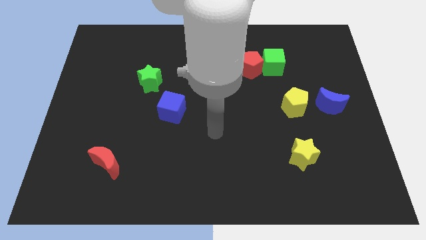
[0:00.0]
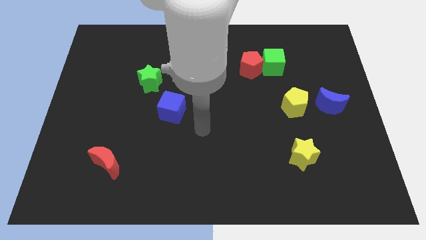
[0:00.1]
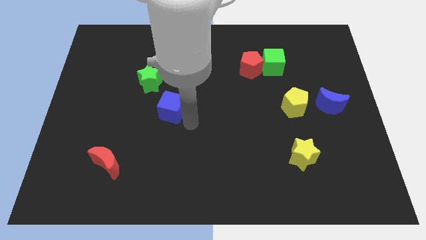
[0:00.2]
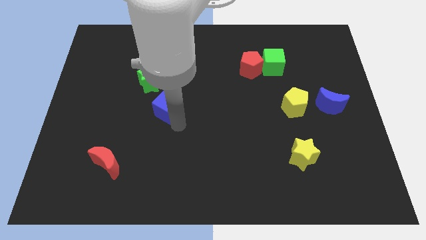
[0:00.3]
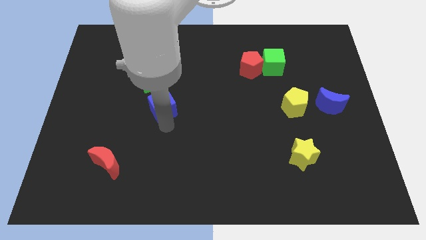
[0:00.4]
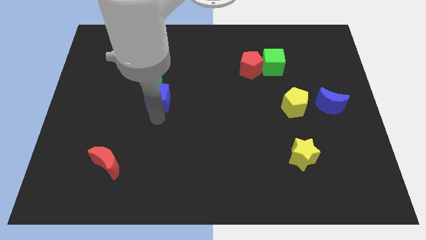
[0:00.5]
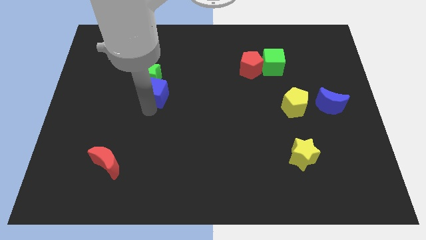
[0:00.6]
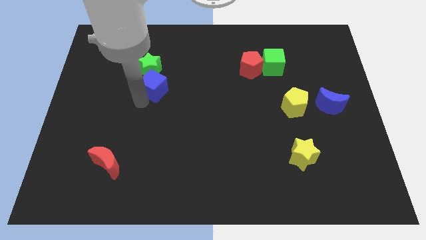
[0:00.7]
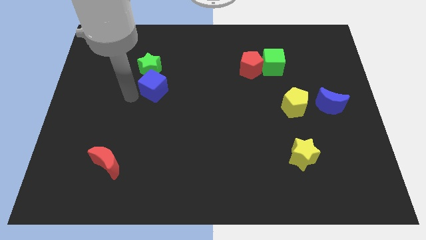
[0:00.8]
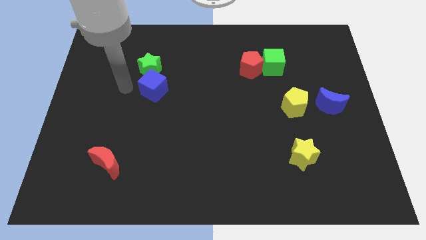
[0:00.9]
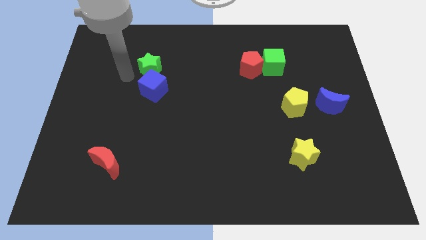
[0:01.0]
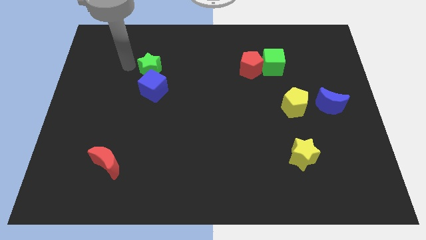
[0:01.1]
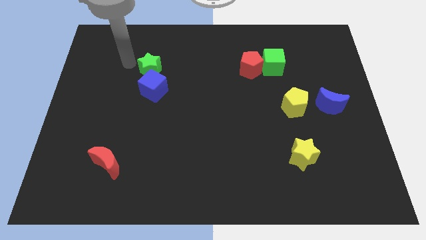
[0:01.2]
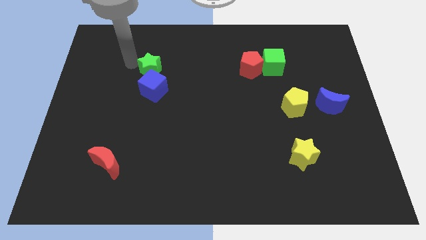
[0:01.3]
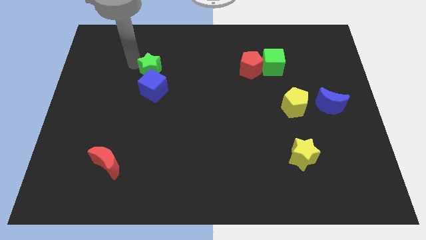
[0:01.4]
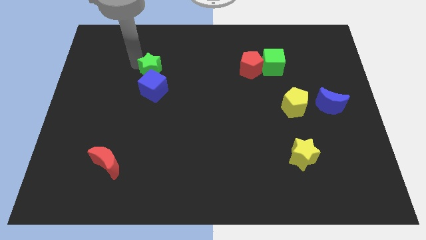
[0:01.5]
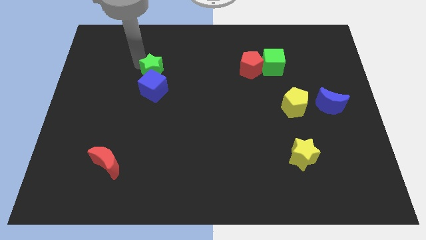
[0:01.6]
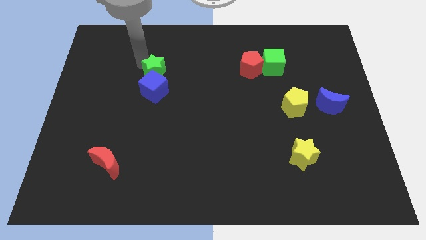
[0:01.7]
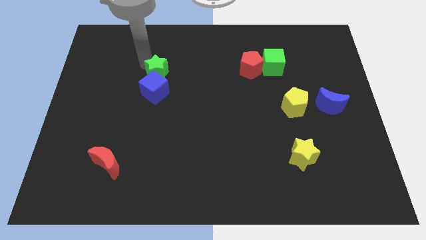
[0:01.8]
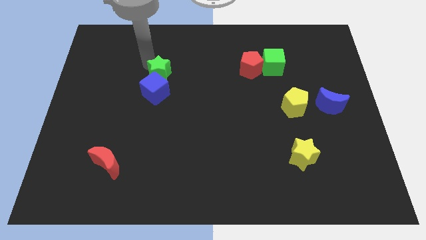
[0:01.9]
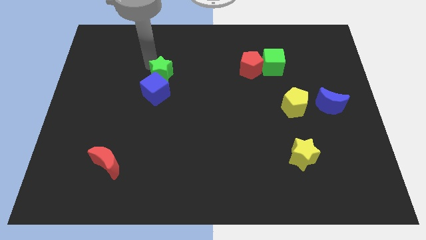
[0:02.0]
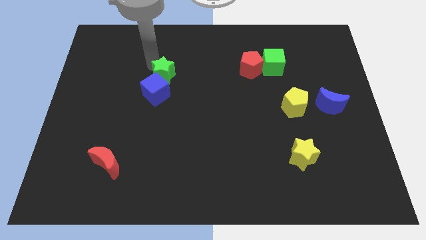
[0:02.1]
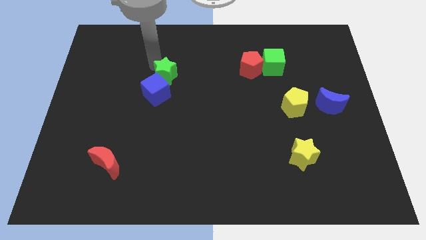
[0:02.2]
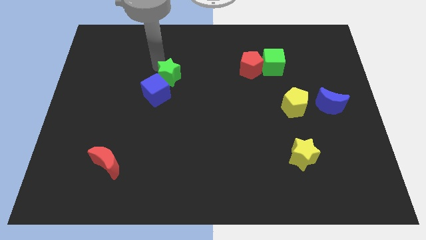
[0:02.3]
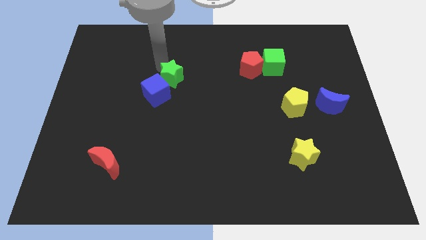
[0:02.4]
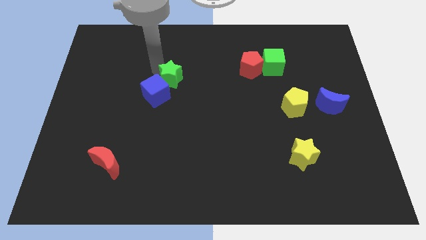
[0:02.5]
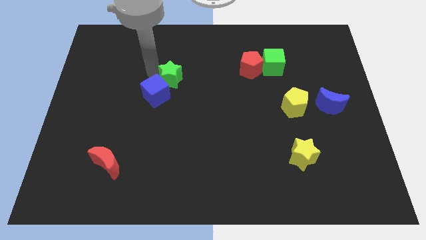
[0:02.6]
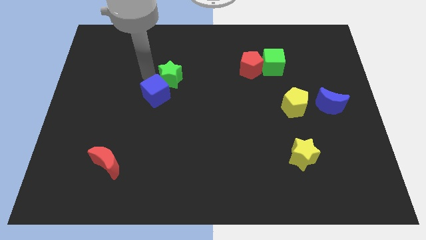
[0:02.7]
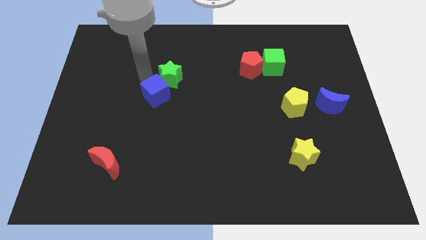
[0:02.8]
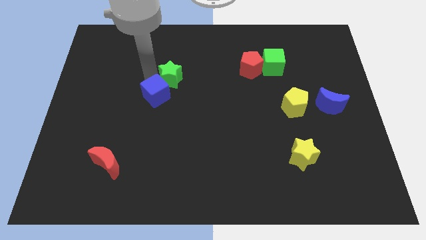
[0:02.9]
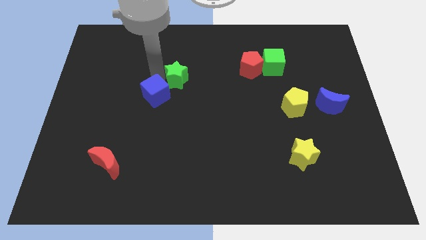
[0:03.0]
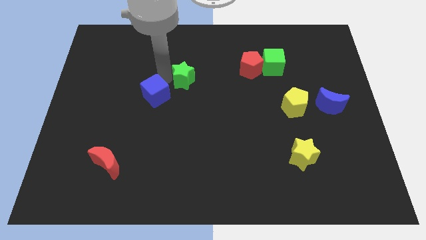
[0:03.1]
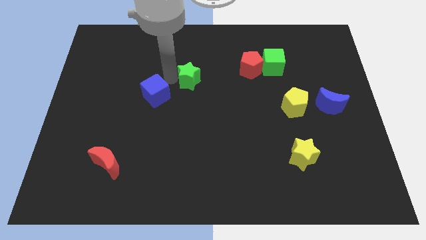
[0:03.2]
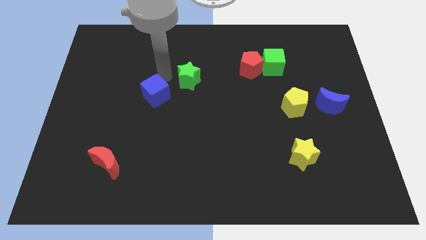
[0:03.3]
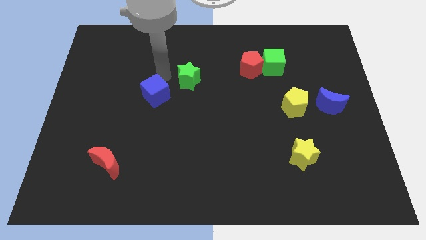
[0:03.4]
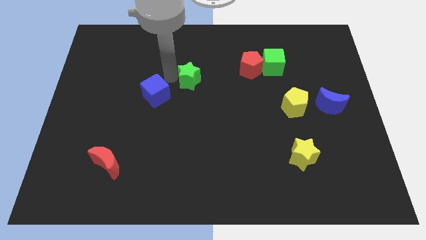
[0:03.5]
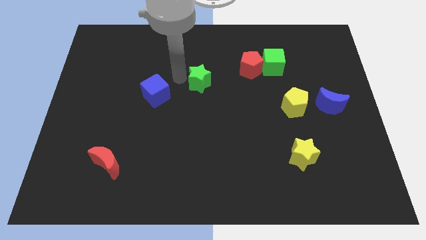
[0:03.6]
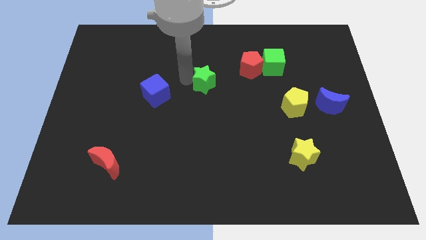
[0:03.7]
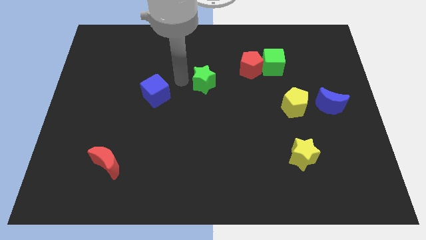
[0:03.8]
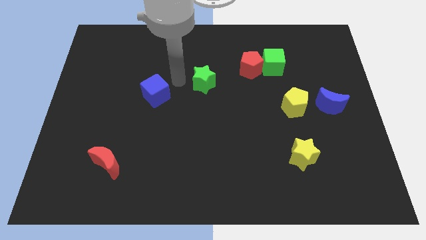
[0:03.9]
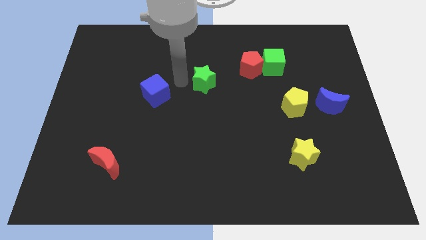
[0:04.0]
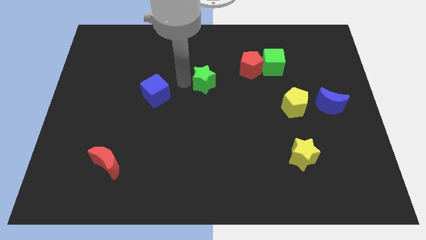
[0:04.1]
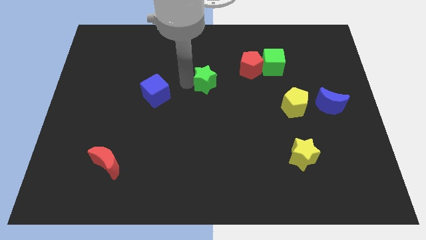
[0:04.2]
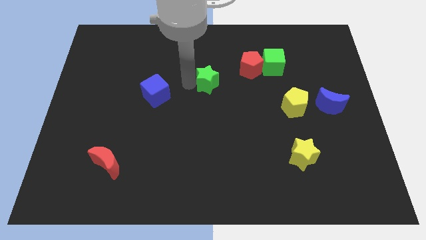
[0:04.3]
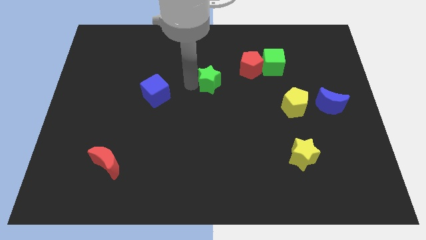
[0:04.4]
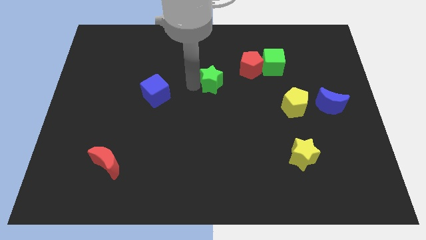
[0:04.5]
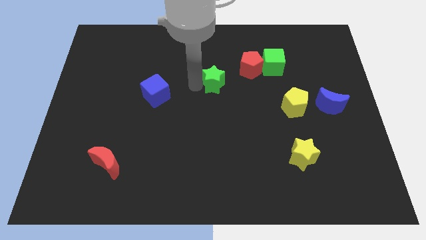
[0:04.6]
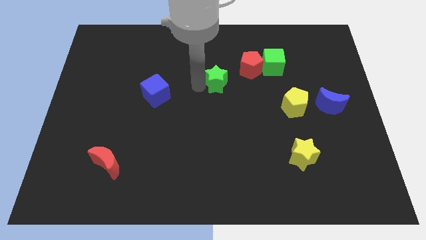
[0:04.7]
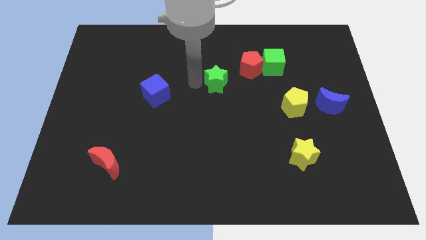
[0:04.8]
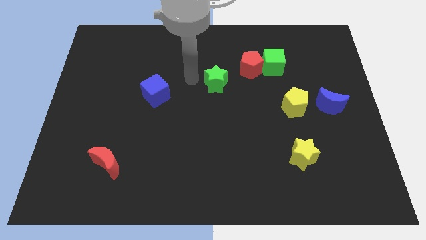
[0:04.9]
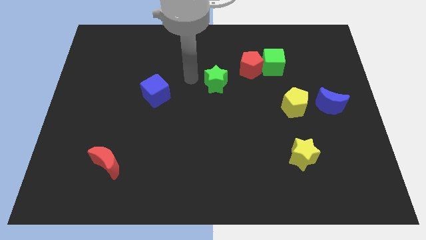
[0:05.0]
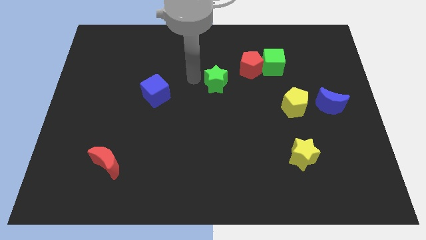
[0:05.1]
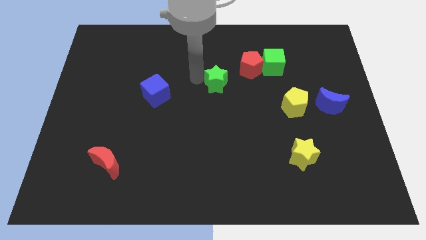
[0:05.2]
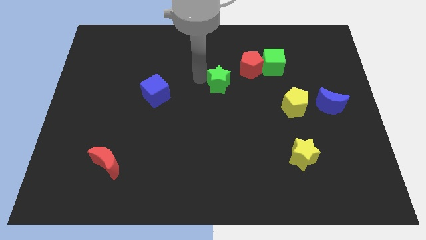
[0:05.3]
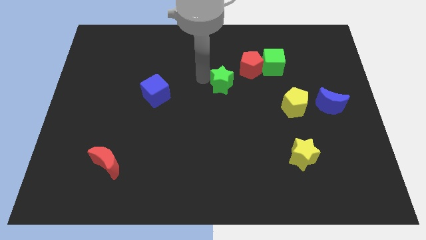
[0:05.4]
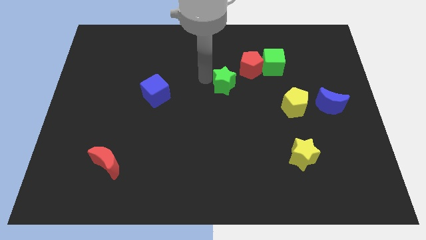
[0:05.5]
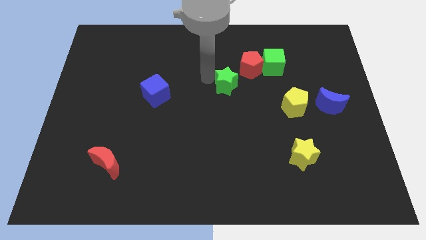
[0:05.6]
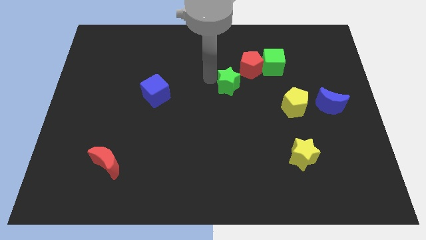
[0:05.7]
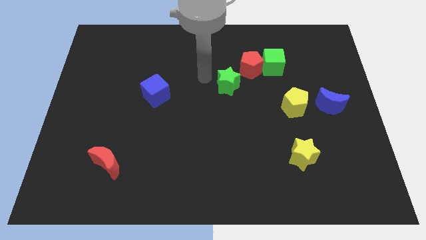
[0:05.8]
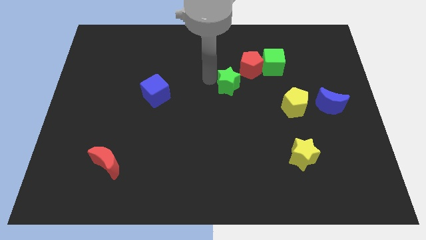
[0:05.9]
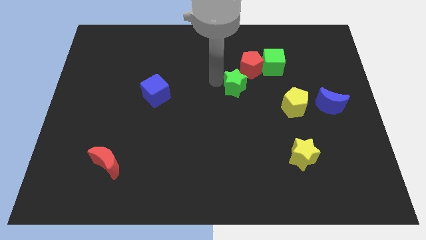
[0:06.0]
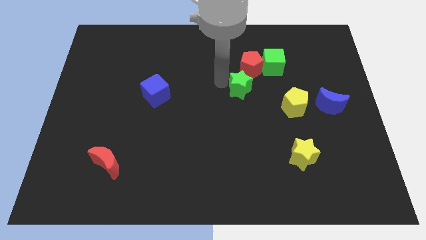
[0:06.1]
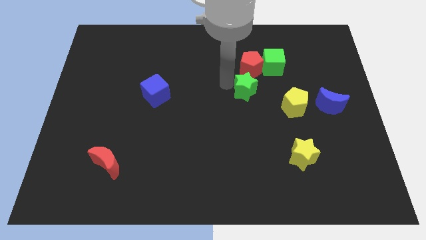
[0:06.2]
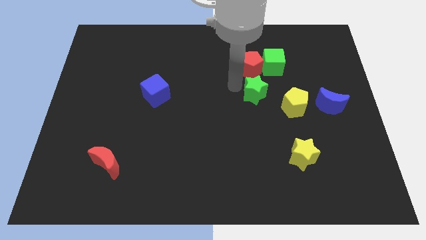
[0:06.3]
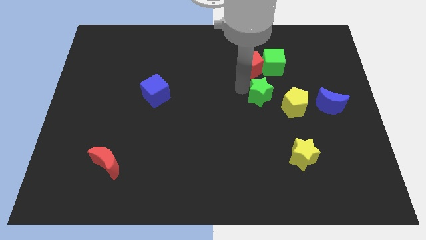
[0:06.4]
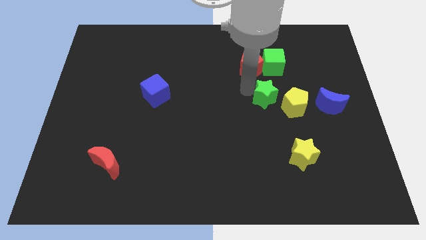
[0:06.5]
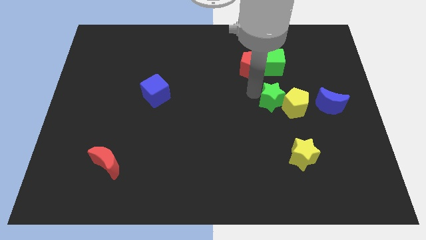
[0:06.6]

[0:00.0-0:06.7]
slide the green star next to the yellow pentagon

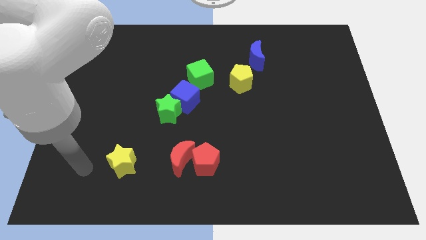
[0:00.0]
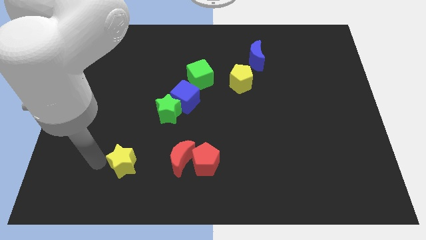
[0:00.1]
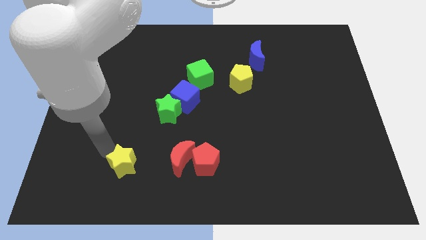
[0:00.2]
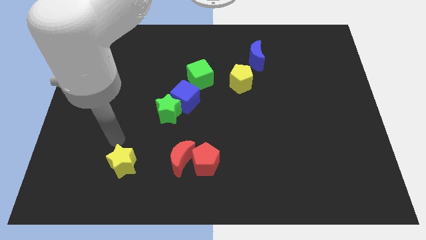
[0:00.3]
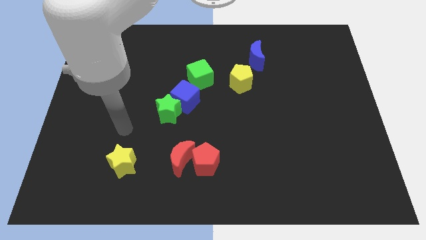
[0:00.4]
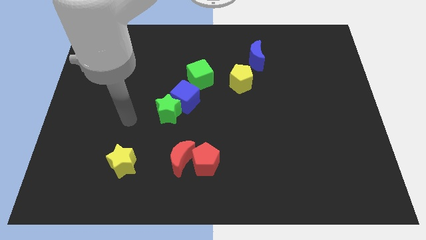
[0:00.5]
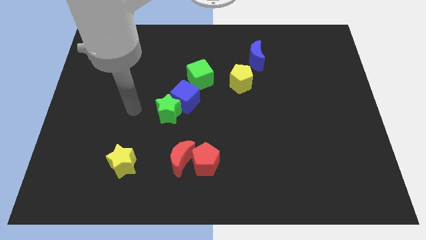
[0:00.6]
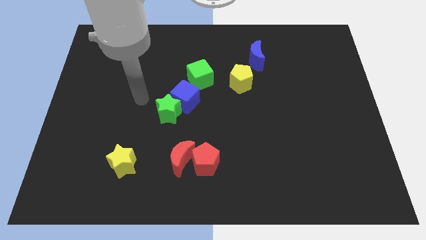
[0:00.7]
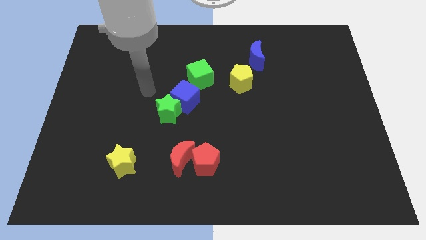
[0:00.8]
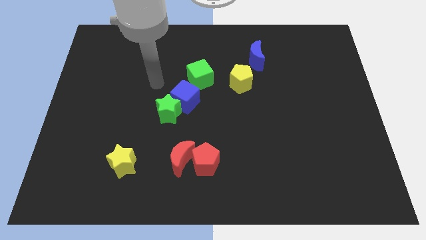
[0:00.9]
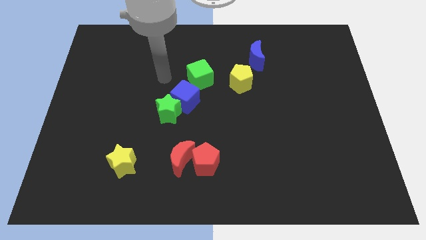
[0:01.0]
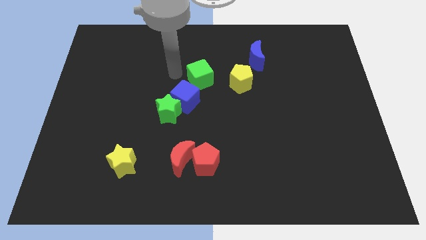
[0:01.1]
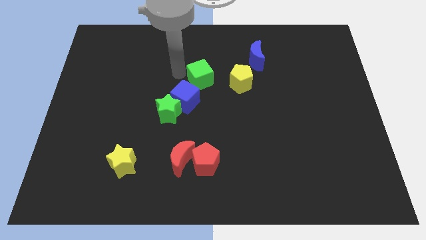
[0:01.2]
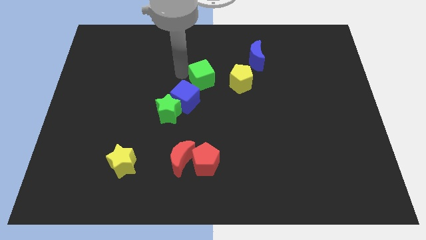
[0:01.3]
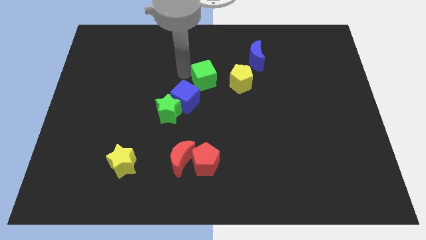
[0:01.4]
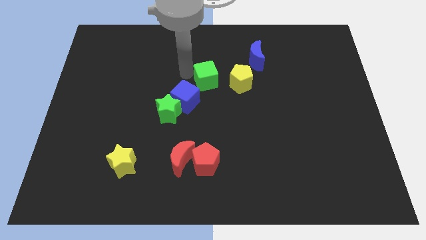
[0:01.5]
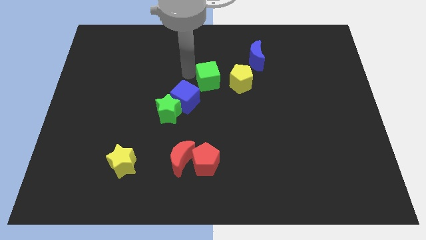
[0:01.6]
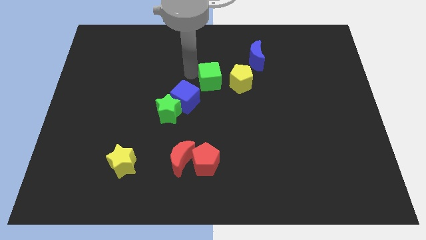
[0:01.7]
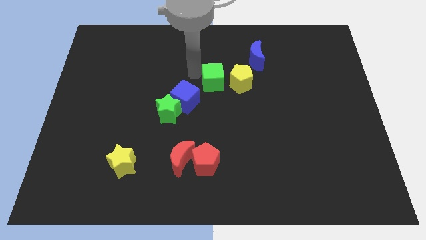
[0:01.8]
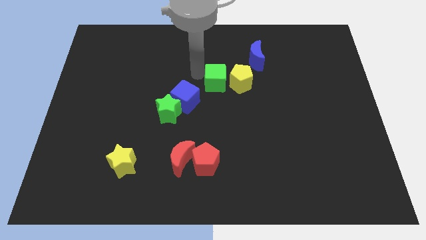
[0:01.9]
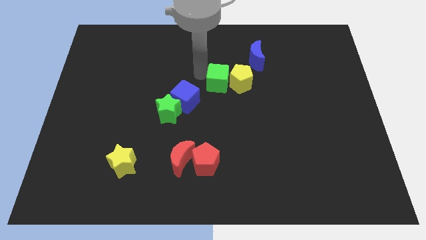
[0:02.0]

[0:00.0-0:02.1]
push the green cube towards the yellow pentagon
